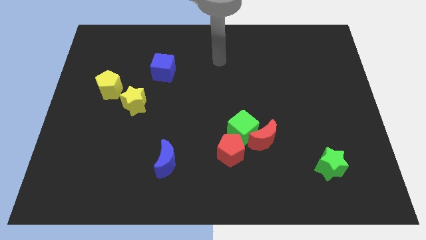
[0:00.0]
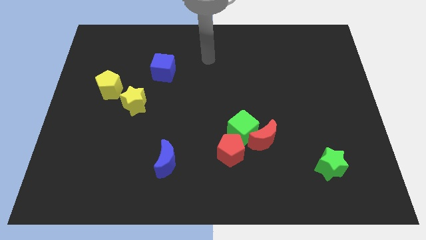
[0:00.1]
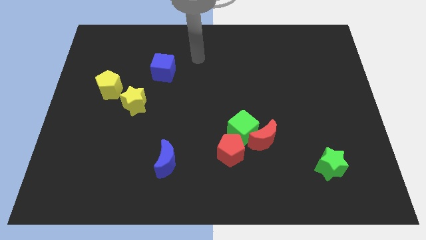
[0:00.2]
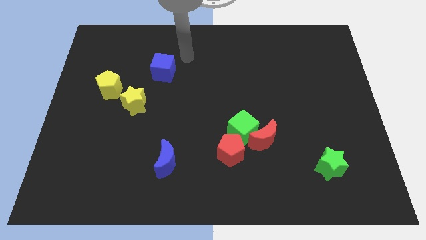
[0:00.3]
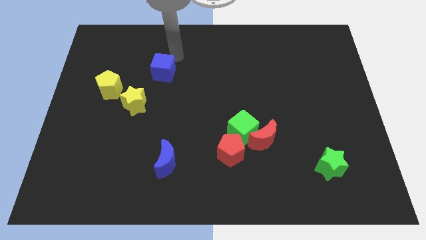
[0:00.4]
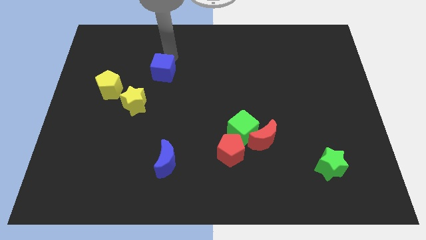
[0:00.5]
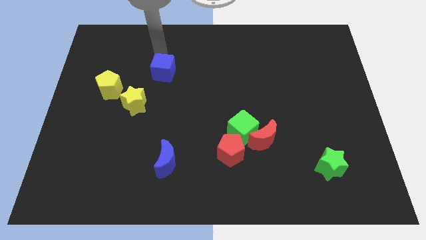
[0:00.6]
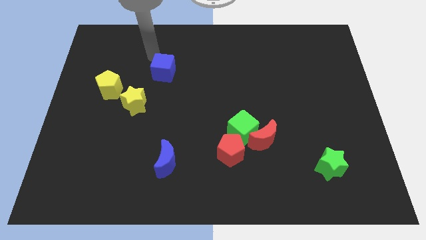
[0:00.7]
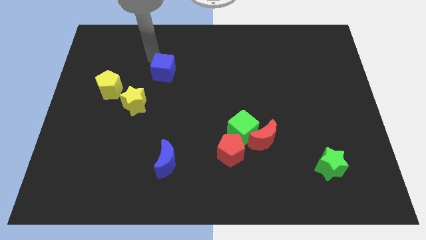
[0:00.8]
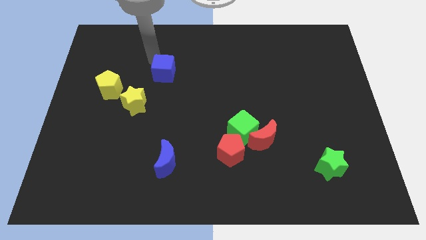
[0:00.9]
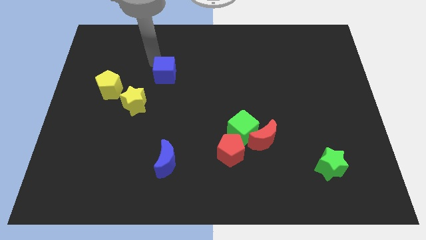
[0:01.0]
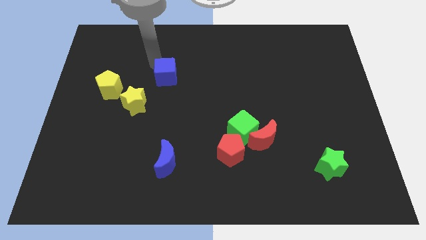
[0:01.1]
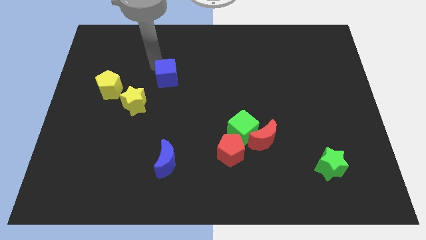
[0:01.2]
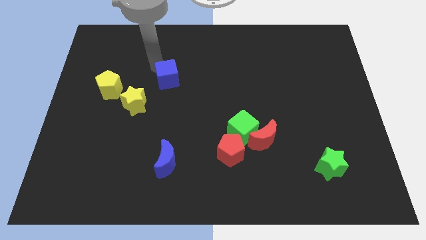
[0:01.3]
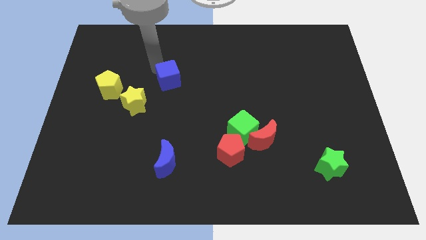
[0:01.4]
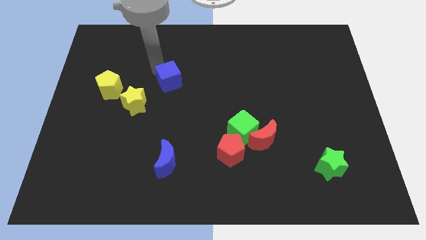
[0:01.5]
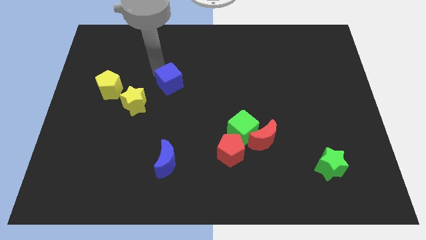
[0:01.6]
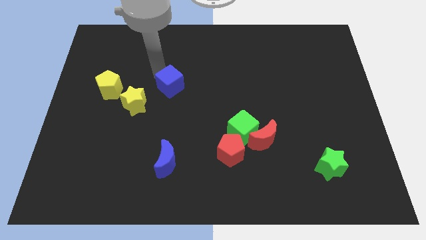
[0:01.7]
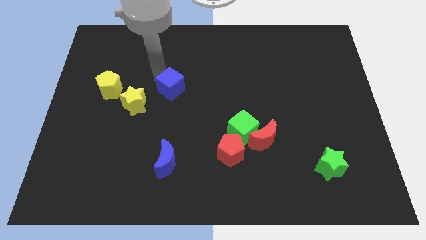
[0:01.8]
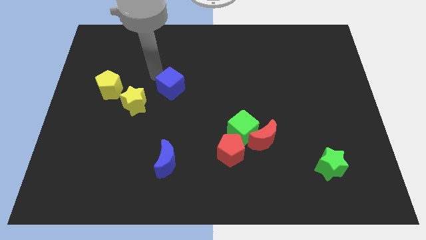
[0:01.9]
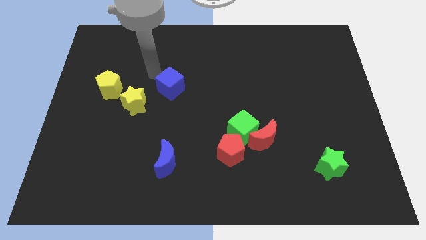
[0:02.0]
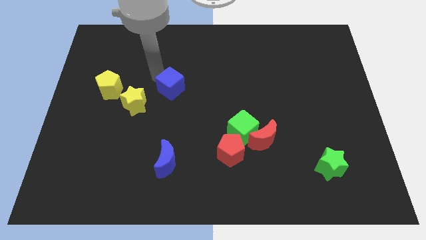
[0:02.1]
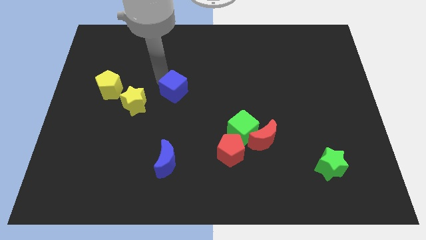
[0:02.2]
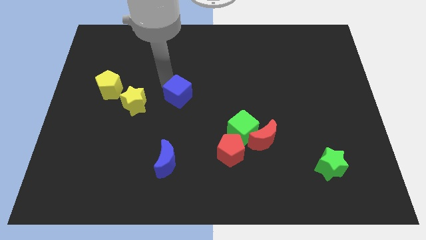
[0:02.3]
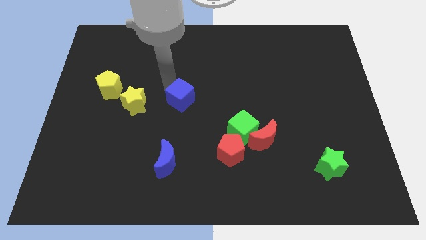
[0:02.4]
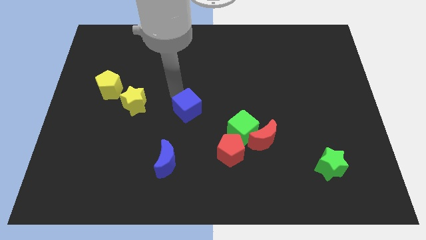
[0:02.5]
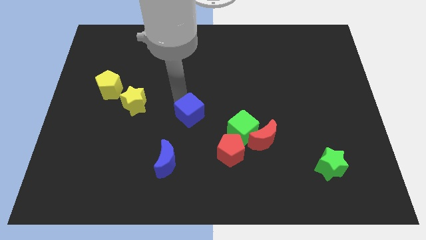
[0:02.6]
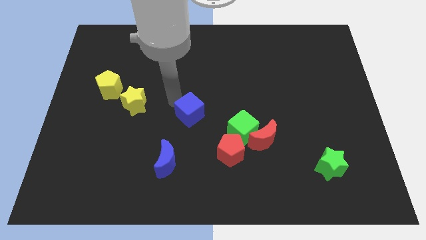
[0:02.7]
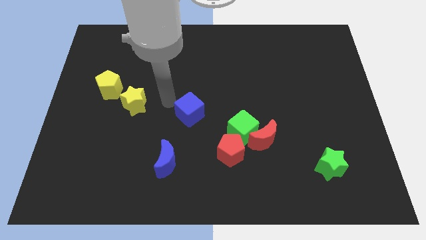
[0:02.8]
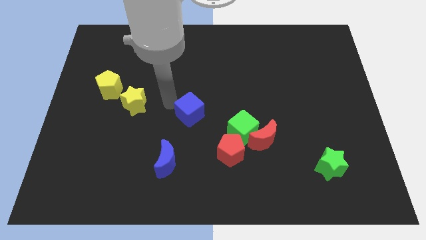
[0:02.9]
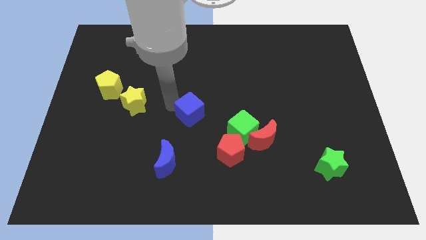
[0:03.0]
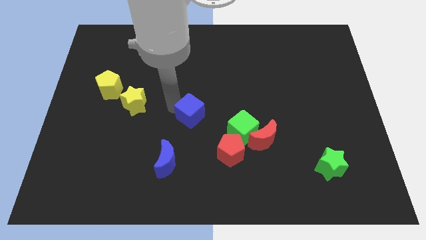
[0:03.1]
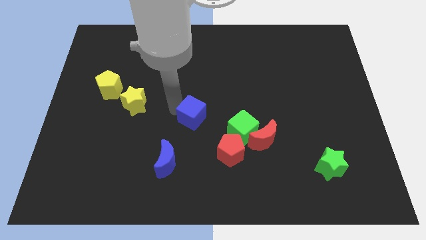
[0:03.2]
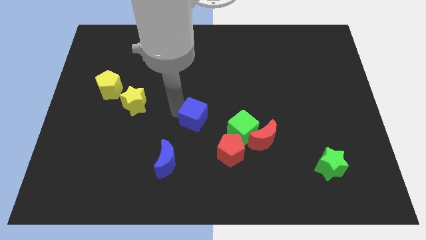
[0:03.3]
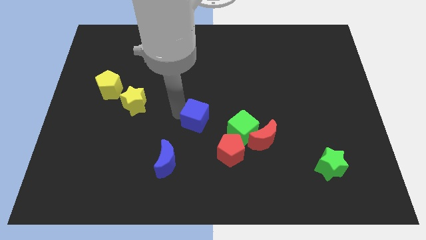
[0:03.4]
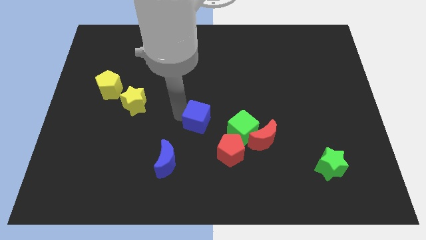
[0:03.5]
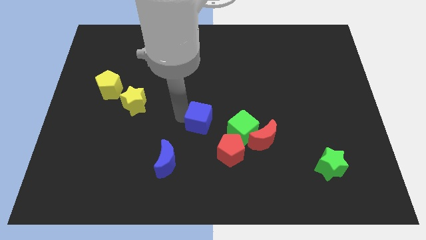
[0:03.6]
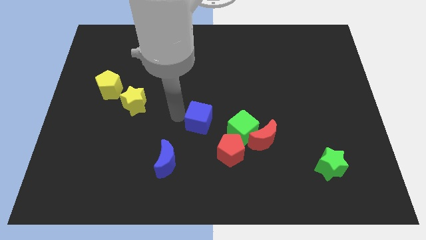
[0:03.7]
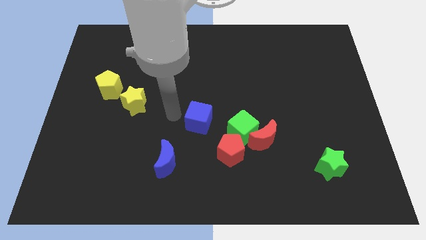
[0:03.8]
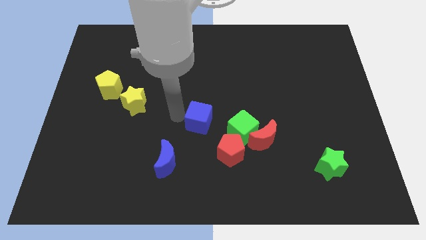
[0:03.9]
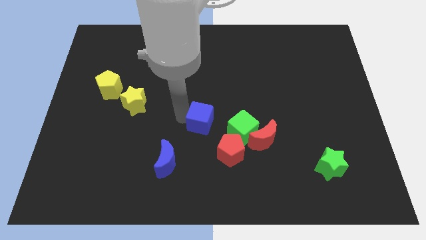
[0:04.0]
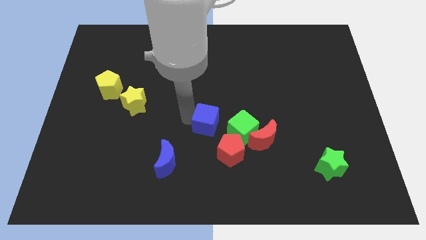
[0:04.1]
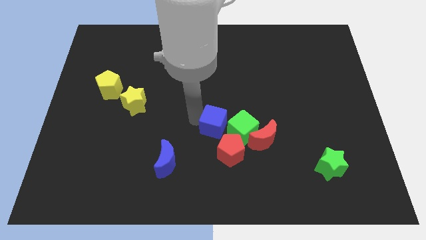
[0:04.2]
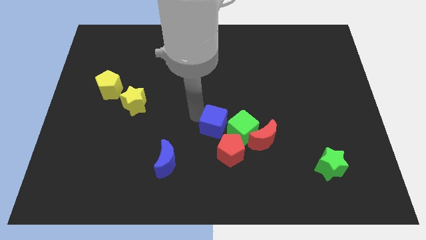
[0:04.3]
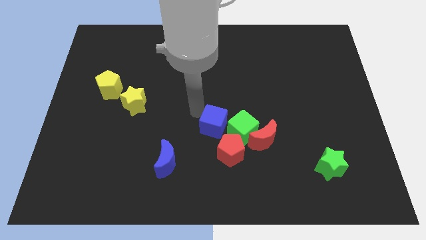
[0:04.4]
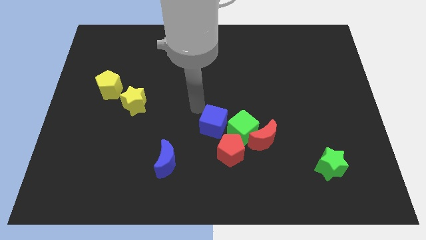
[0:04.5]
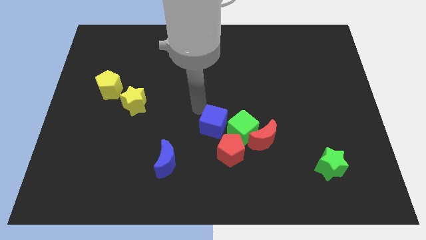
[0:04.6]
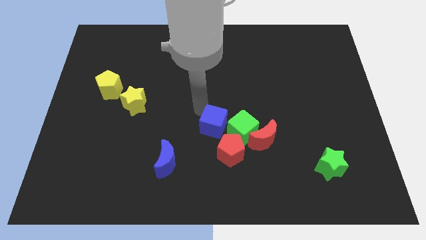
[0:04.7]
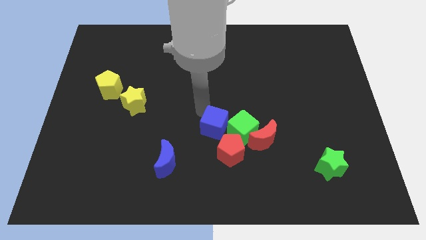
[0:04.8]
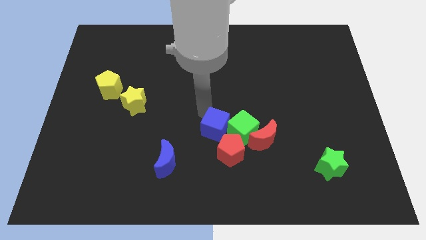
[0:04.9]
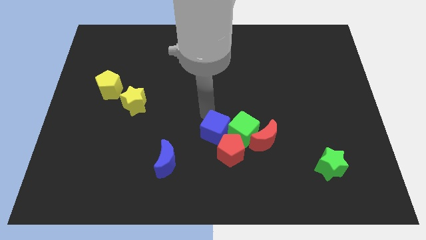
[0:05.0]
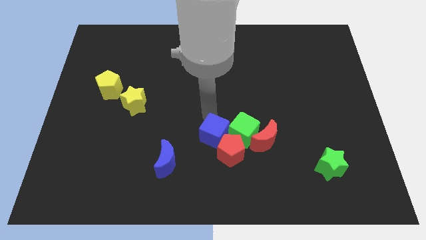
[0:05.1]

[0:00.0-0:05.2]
put the blue cube next to the red pentagon

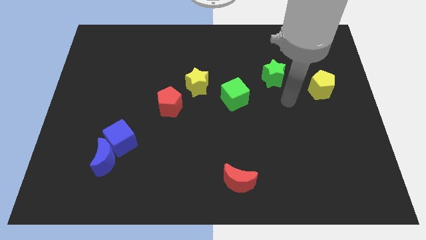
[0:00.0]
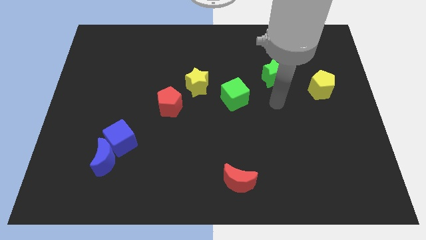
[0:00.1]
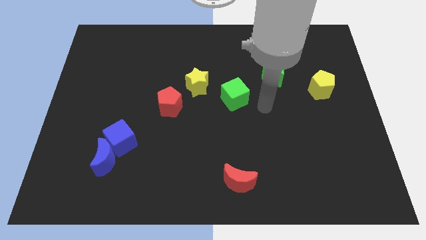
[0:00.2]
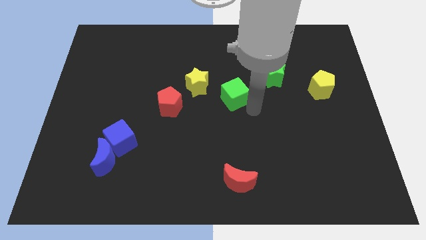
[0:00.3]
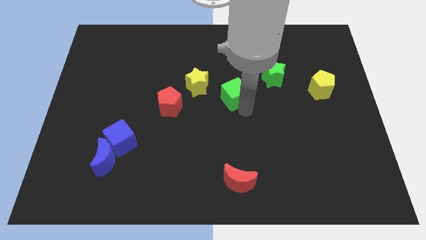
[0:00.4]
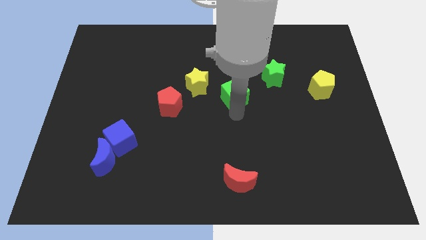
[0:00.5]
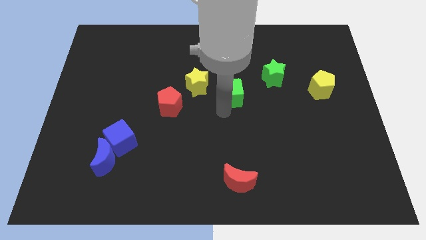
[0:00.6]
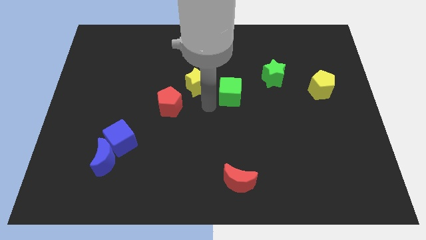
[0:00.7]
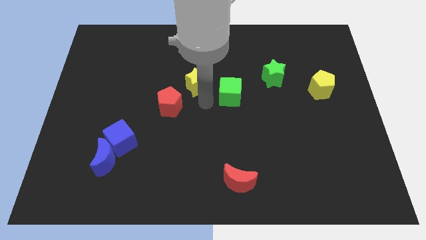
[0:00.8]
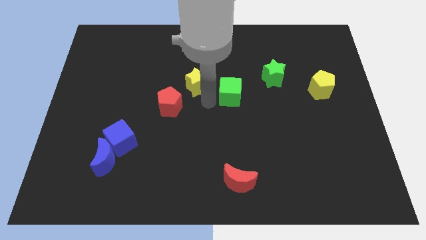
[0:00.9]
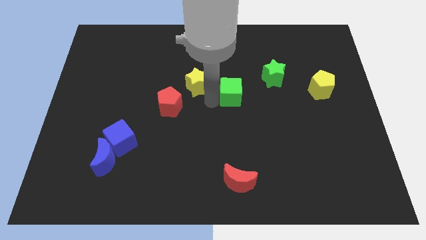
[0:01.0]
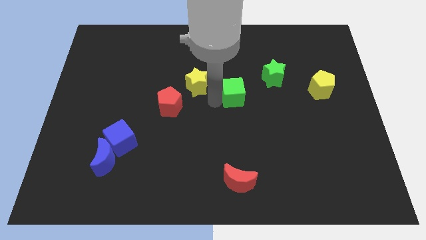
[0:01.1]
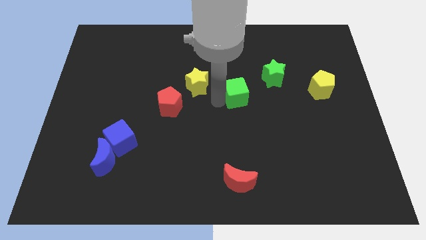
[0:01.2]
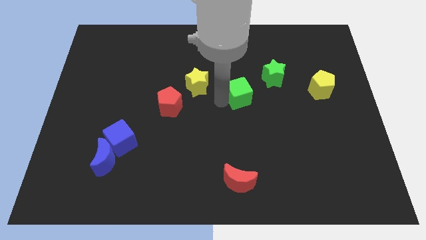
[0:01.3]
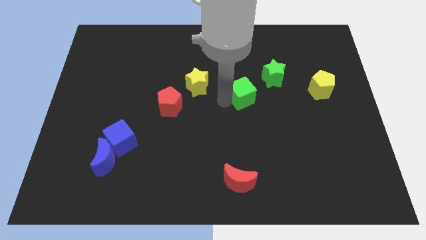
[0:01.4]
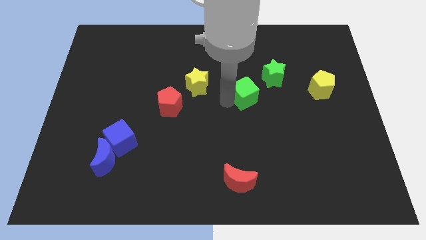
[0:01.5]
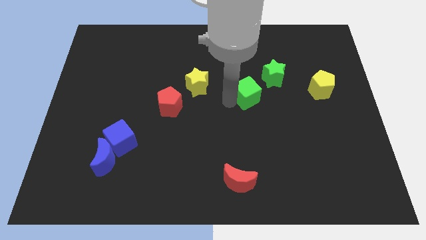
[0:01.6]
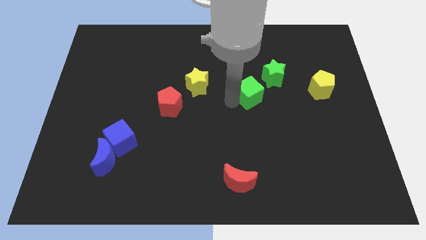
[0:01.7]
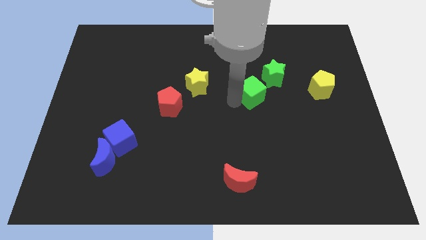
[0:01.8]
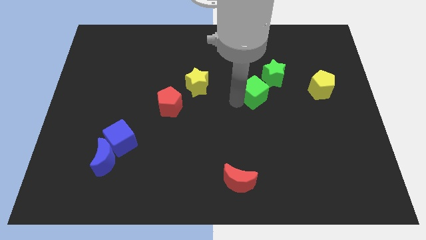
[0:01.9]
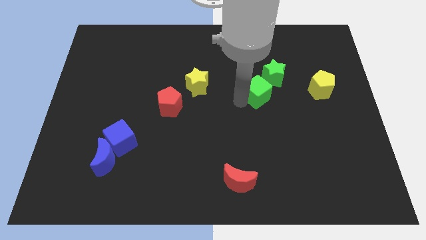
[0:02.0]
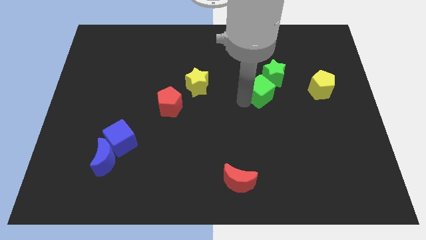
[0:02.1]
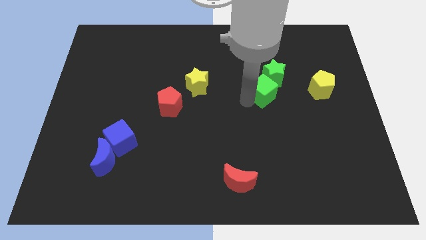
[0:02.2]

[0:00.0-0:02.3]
move the green cube to the green star
